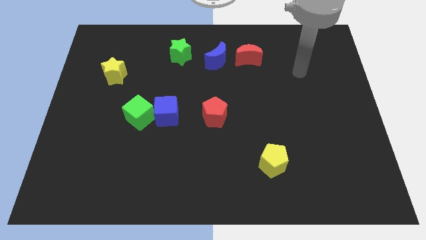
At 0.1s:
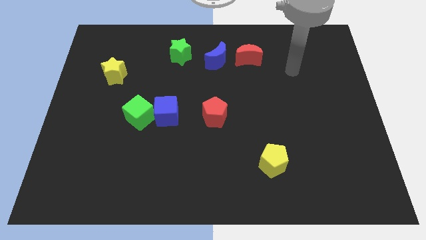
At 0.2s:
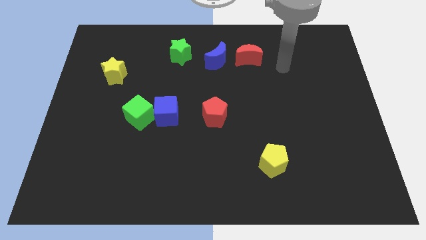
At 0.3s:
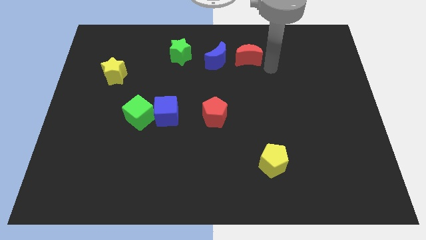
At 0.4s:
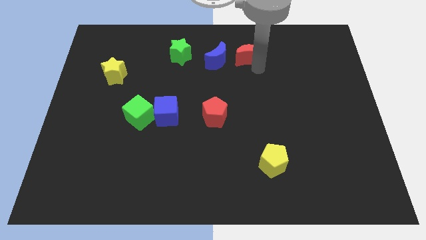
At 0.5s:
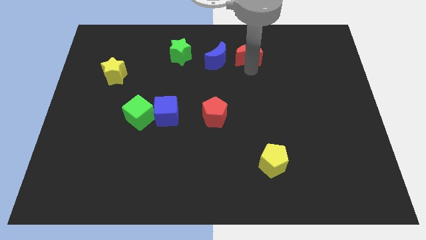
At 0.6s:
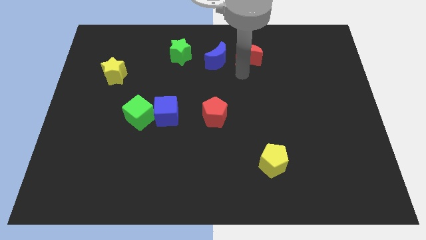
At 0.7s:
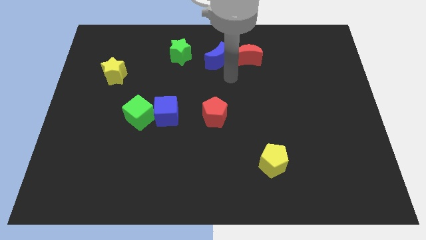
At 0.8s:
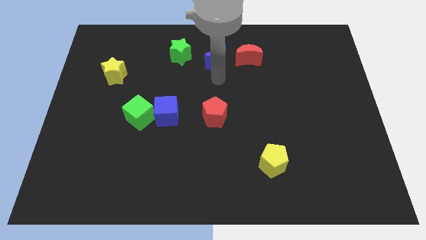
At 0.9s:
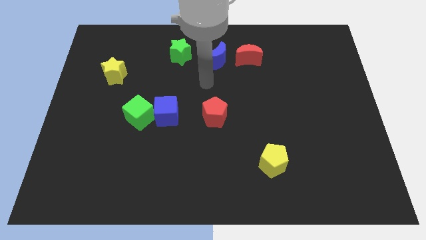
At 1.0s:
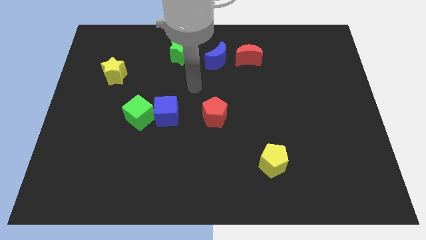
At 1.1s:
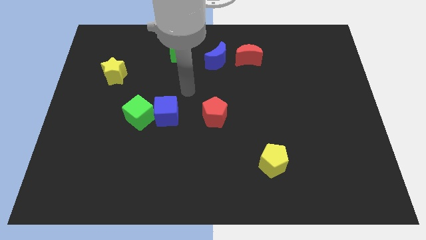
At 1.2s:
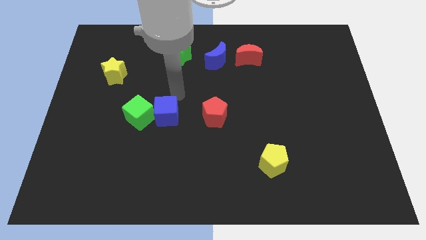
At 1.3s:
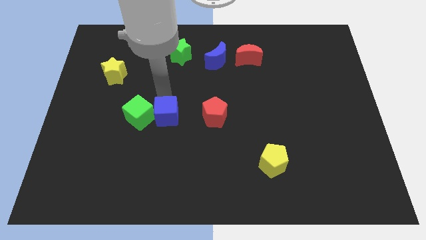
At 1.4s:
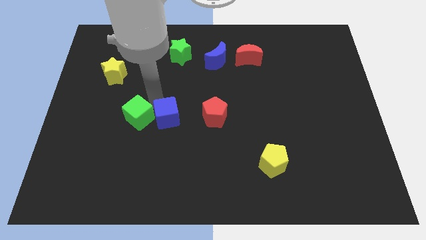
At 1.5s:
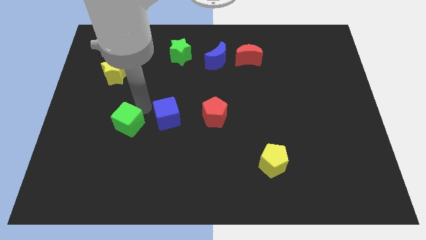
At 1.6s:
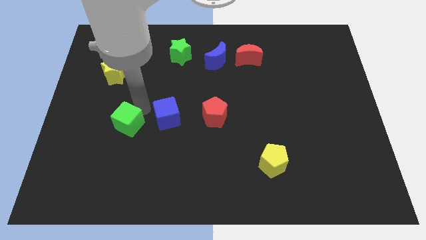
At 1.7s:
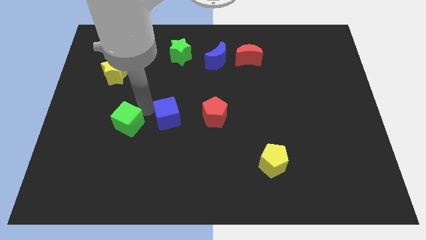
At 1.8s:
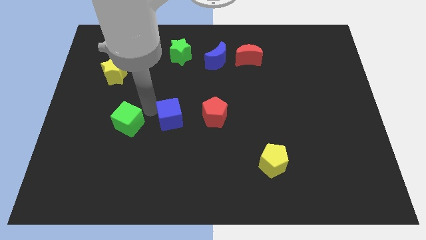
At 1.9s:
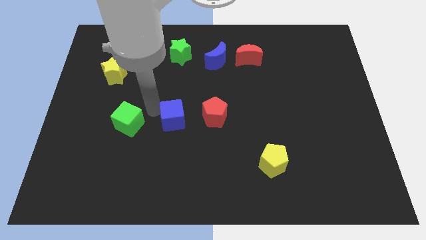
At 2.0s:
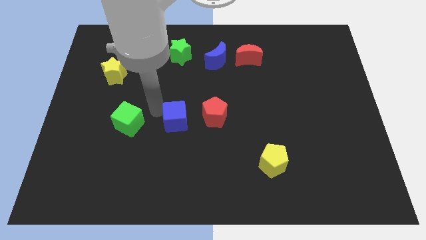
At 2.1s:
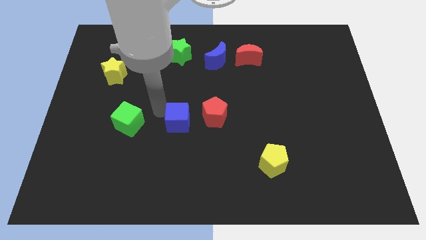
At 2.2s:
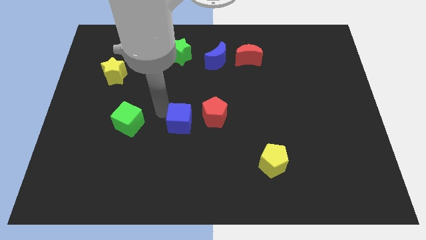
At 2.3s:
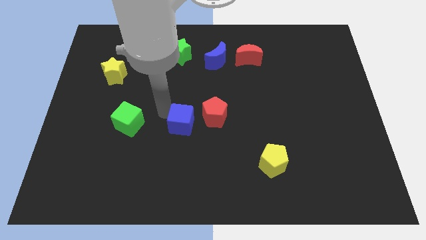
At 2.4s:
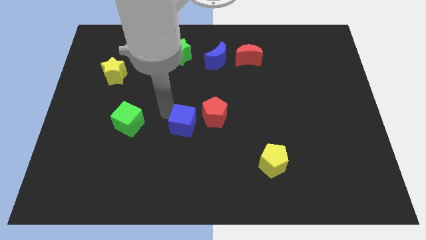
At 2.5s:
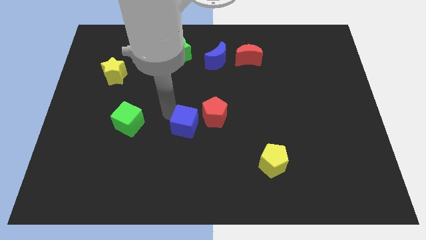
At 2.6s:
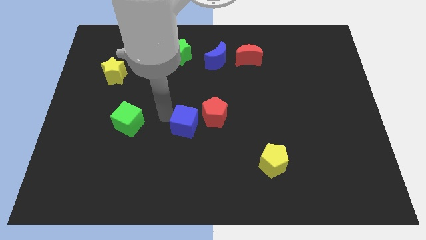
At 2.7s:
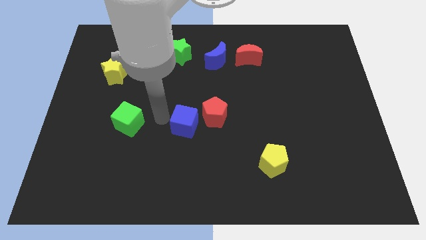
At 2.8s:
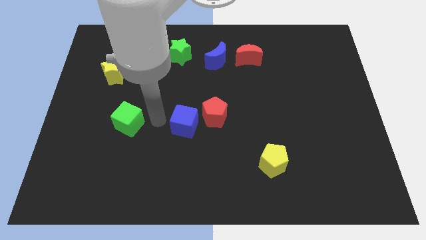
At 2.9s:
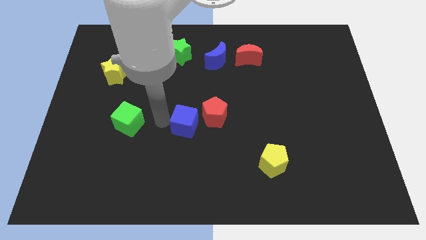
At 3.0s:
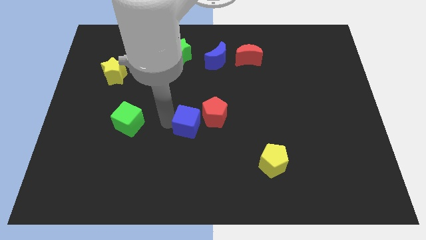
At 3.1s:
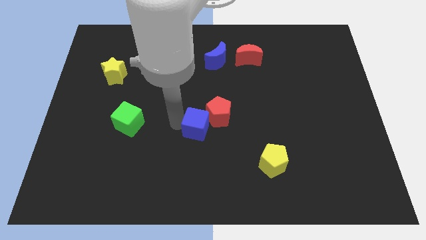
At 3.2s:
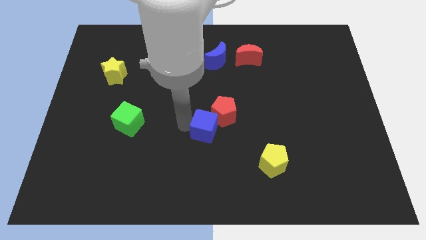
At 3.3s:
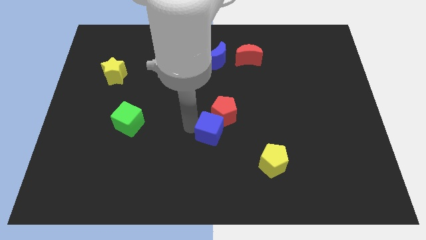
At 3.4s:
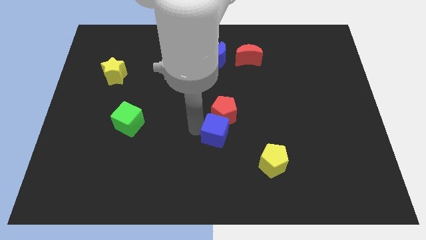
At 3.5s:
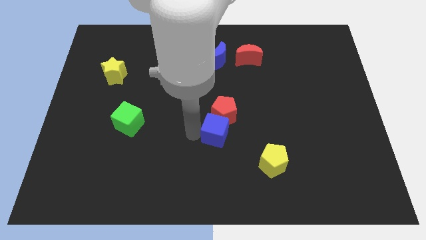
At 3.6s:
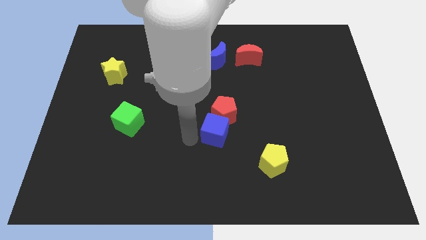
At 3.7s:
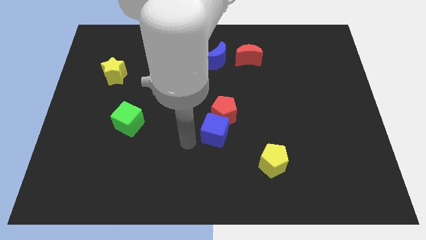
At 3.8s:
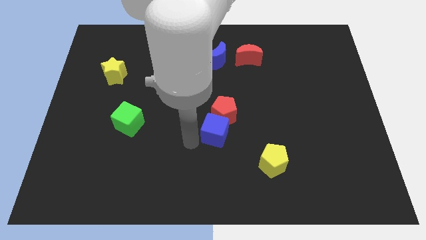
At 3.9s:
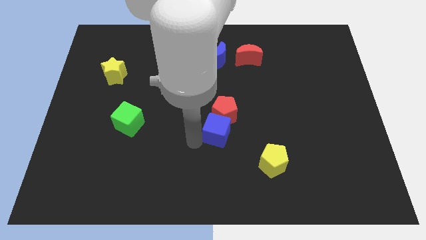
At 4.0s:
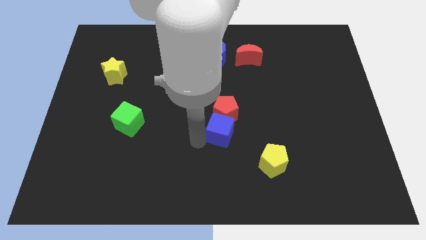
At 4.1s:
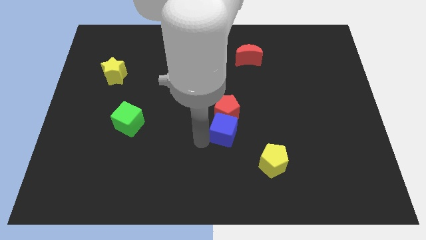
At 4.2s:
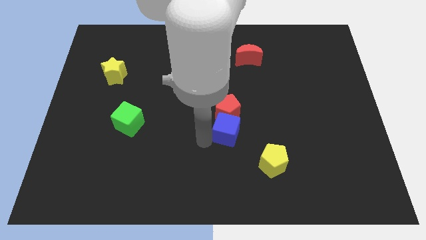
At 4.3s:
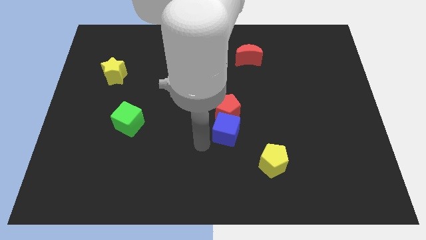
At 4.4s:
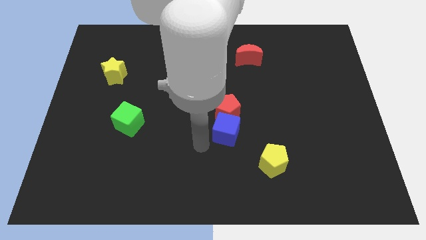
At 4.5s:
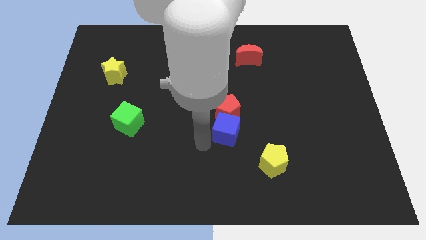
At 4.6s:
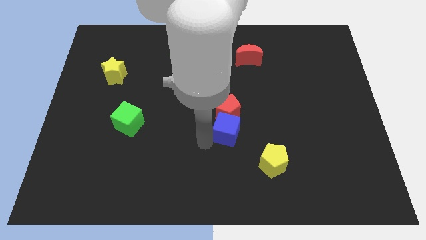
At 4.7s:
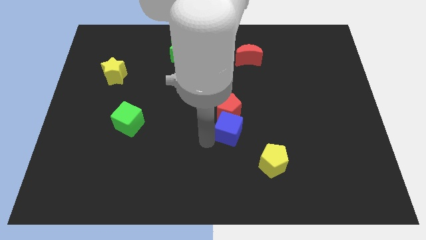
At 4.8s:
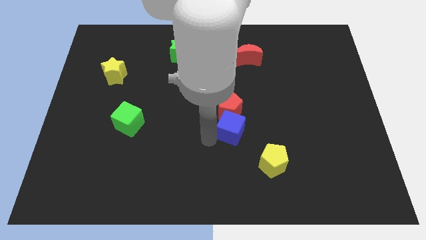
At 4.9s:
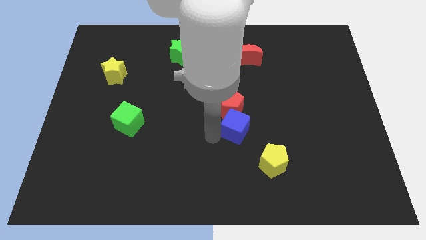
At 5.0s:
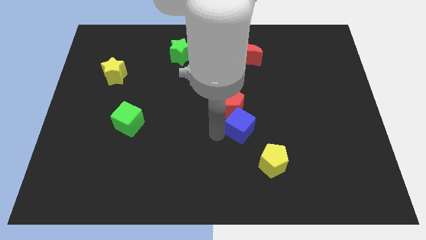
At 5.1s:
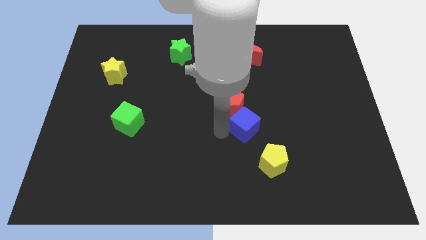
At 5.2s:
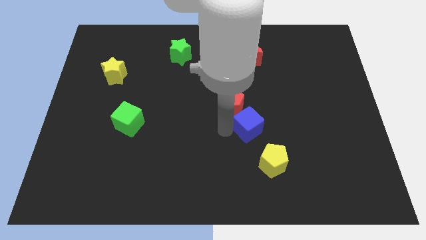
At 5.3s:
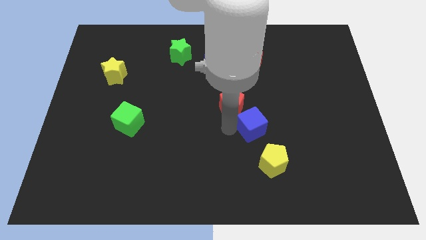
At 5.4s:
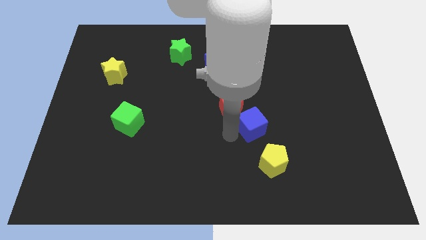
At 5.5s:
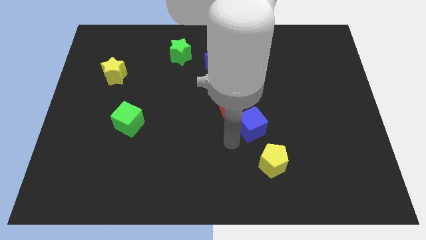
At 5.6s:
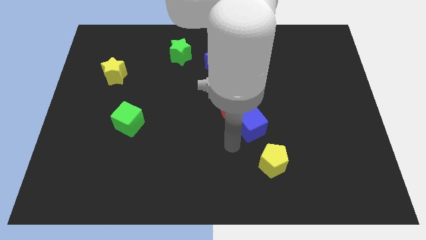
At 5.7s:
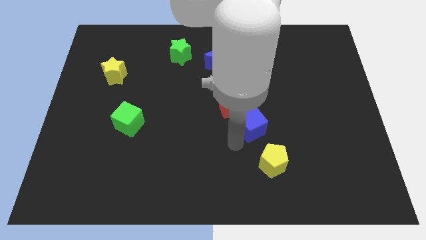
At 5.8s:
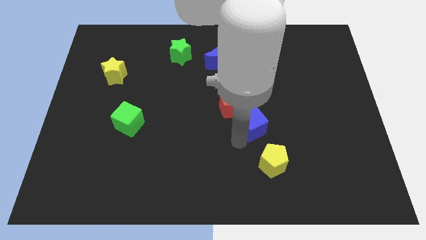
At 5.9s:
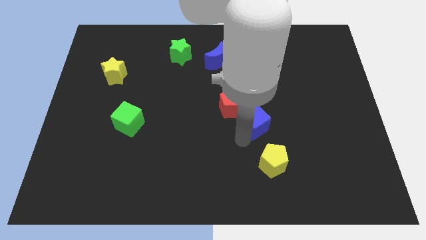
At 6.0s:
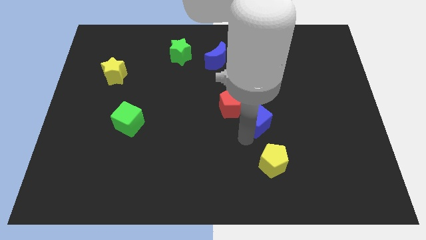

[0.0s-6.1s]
slide the blue cube to the right of the red pentagon

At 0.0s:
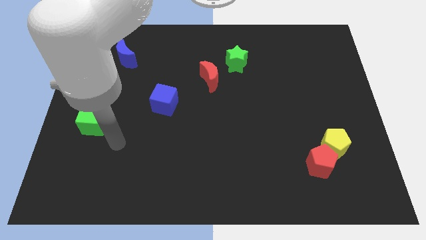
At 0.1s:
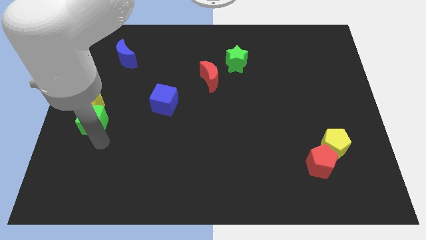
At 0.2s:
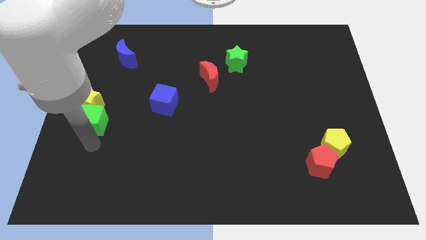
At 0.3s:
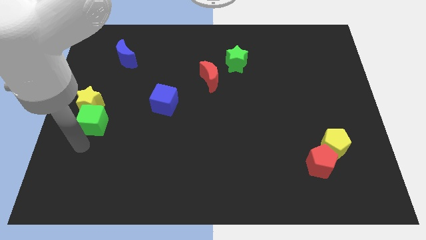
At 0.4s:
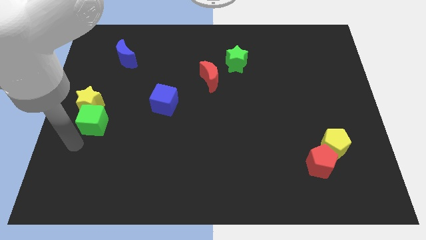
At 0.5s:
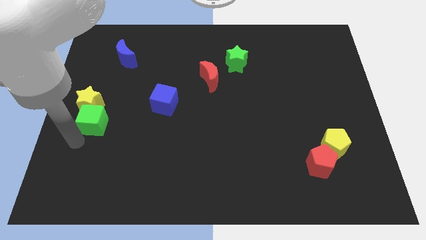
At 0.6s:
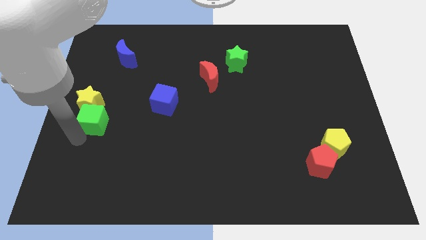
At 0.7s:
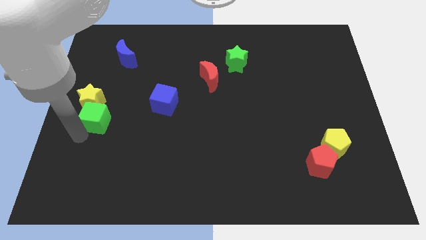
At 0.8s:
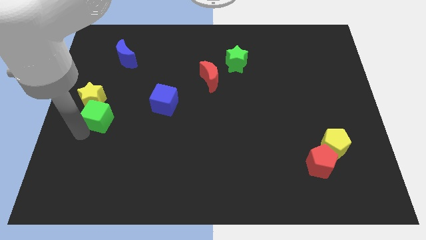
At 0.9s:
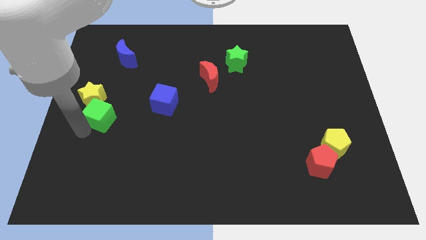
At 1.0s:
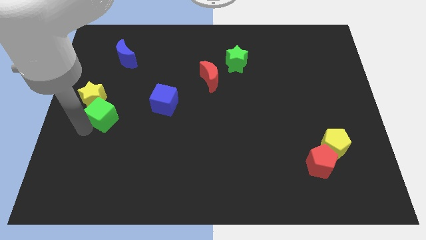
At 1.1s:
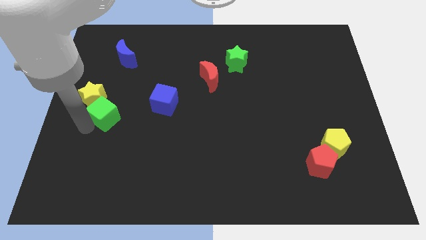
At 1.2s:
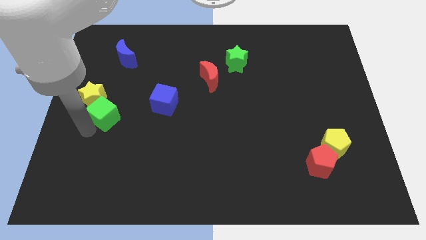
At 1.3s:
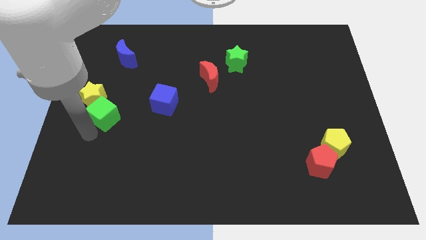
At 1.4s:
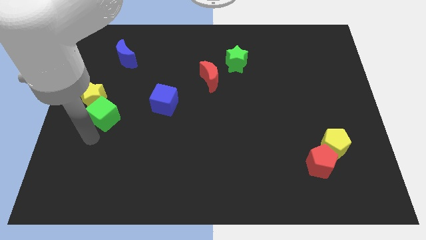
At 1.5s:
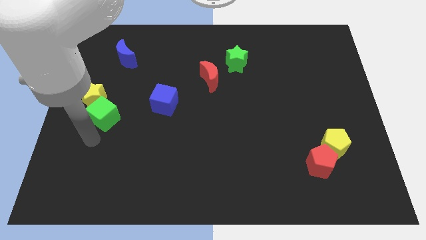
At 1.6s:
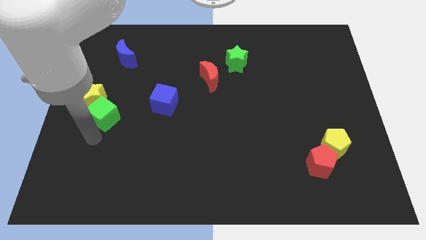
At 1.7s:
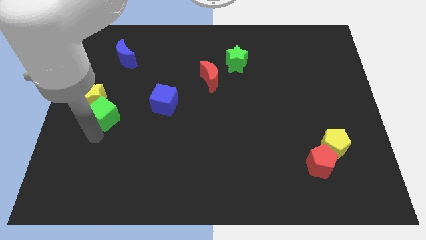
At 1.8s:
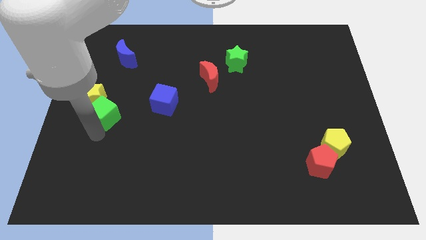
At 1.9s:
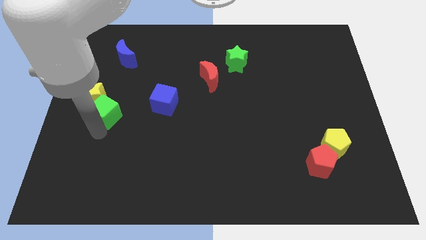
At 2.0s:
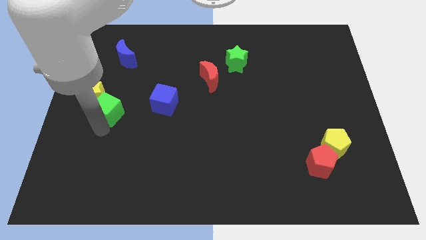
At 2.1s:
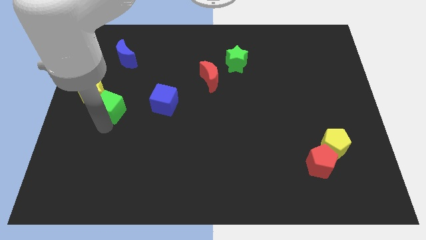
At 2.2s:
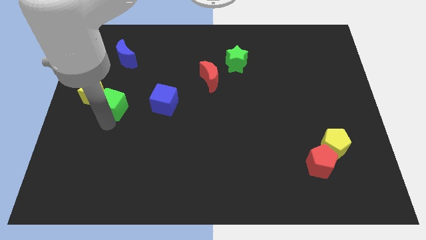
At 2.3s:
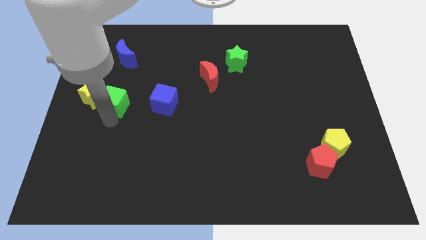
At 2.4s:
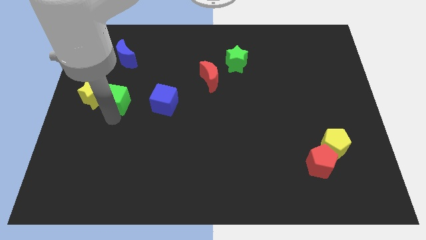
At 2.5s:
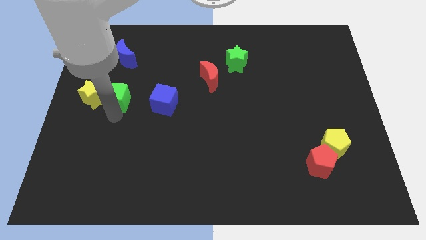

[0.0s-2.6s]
push the green cube to the top right of the yellow star
